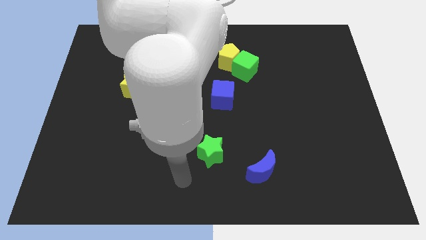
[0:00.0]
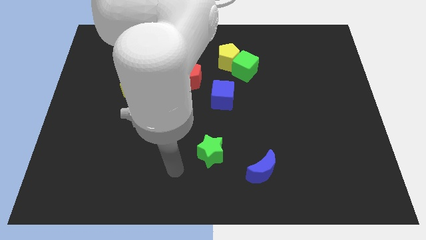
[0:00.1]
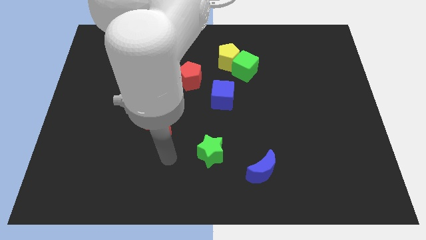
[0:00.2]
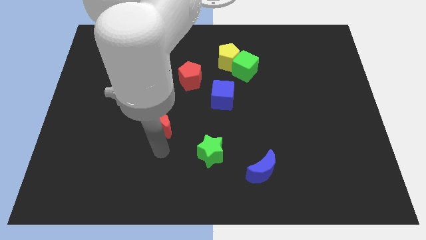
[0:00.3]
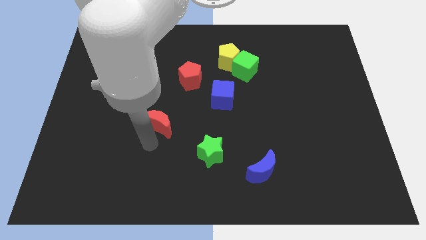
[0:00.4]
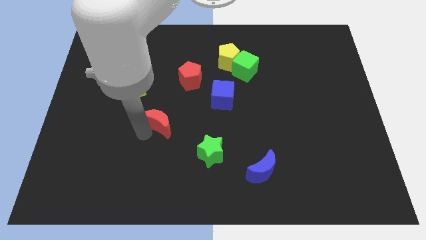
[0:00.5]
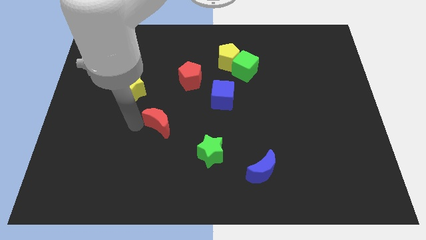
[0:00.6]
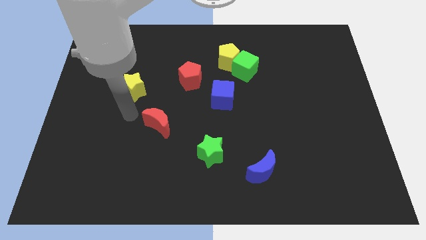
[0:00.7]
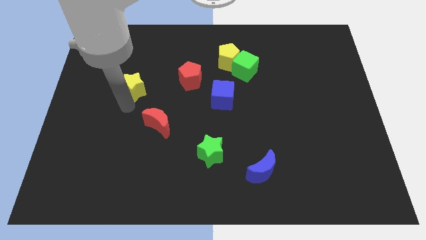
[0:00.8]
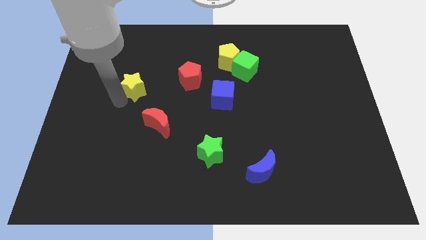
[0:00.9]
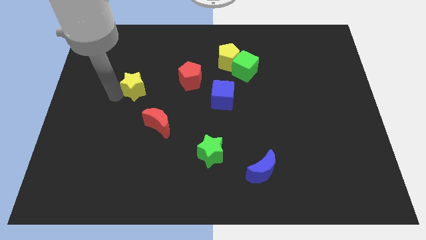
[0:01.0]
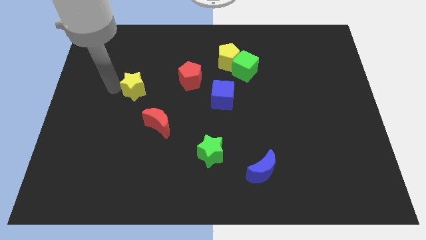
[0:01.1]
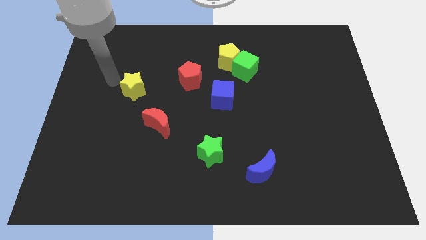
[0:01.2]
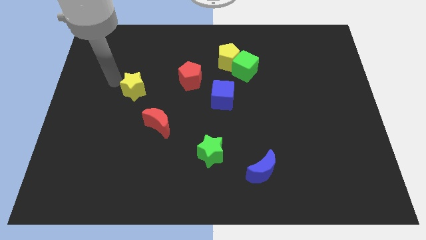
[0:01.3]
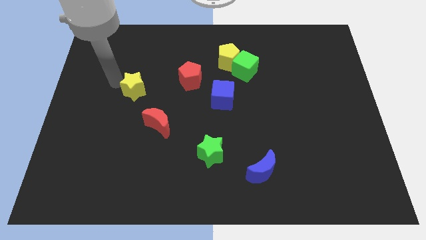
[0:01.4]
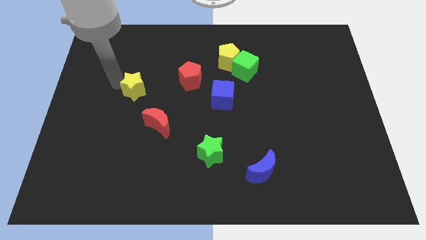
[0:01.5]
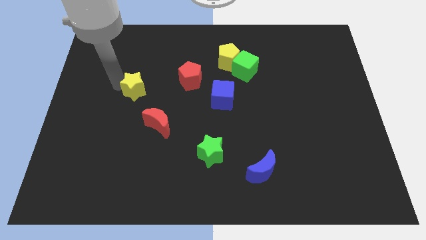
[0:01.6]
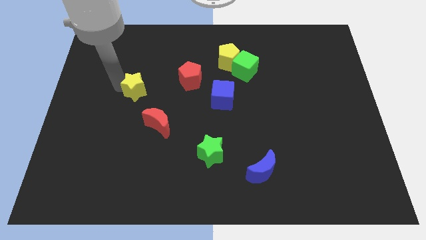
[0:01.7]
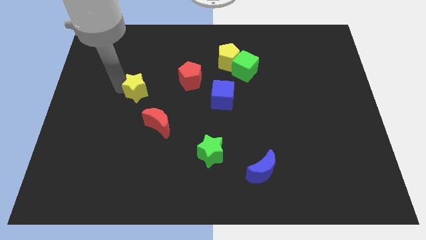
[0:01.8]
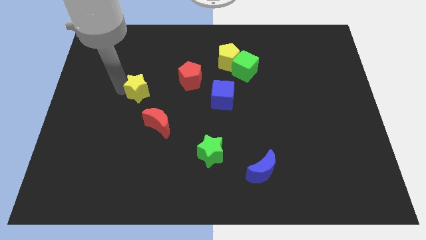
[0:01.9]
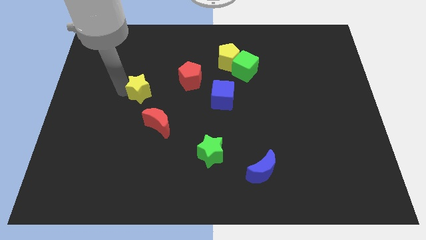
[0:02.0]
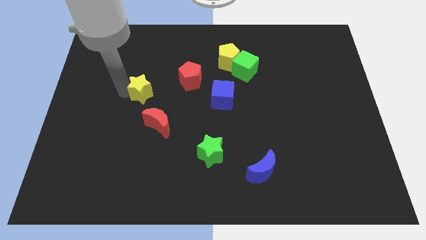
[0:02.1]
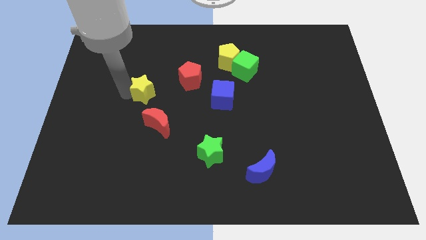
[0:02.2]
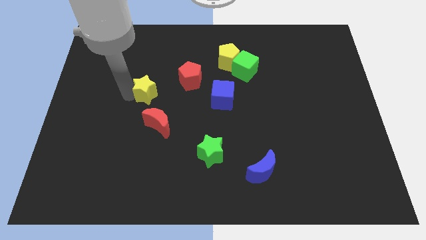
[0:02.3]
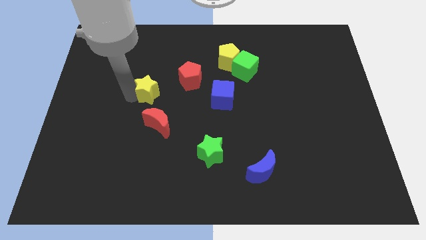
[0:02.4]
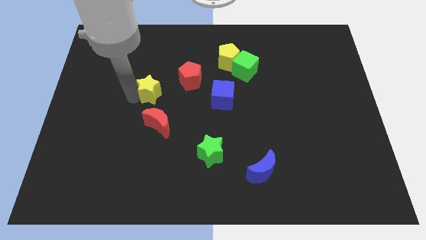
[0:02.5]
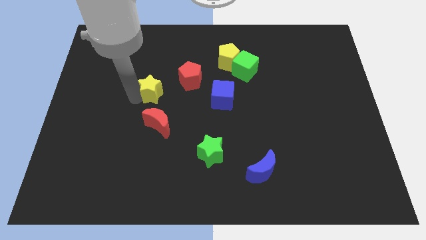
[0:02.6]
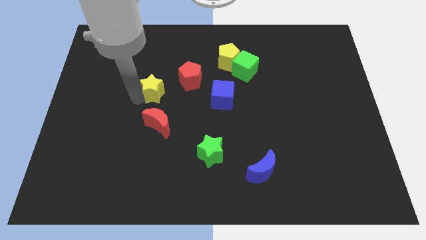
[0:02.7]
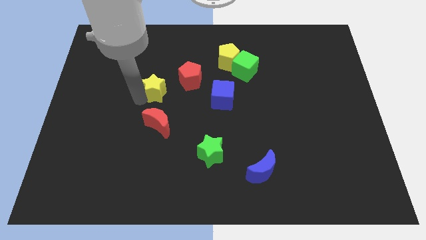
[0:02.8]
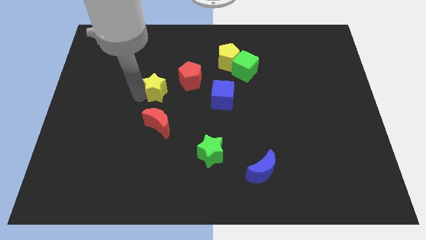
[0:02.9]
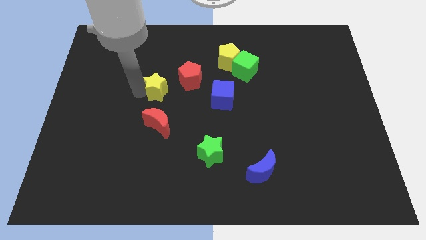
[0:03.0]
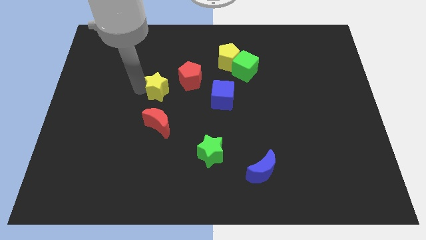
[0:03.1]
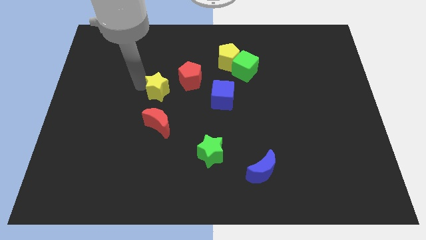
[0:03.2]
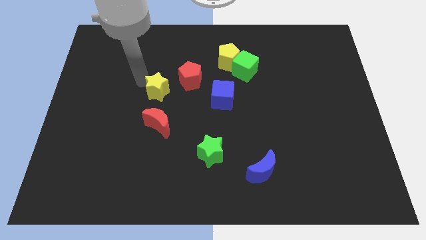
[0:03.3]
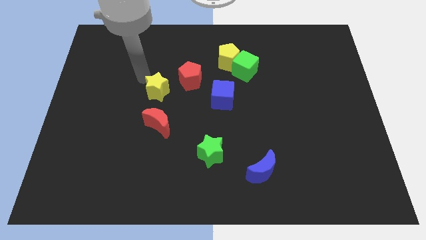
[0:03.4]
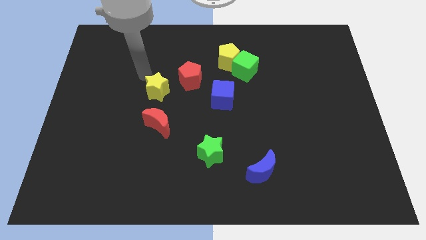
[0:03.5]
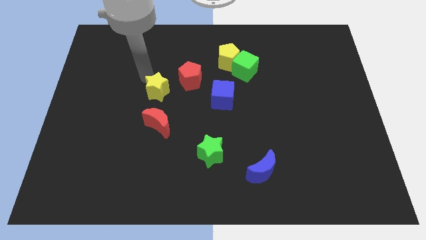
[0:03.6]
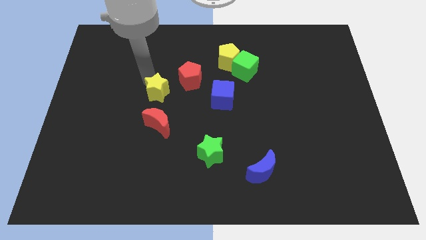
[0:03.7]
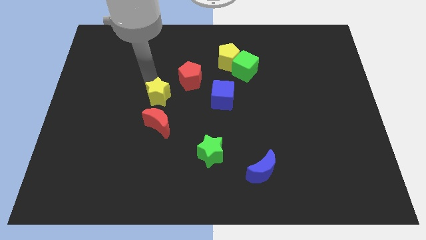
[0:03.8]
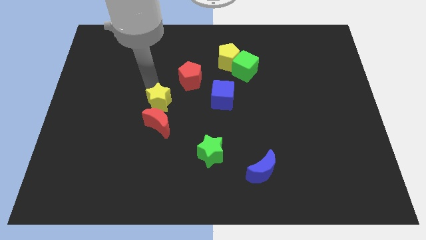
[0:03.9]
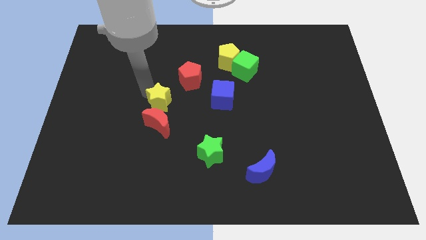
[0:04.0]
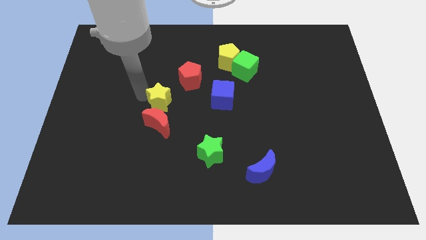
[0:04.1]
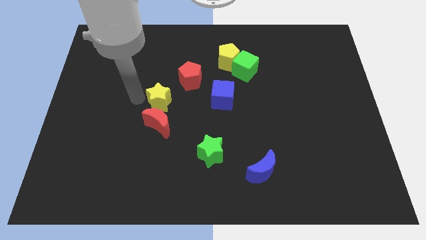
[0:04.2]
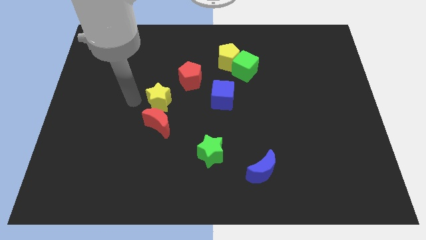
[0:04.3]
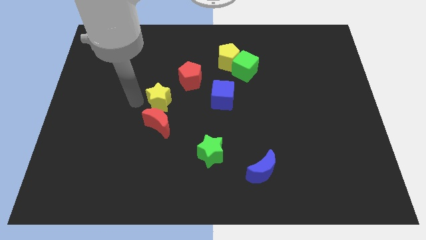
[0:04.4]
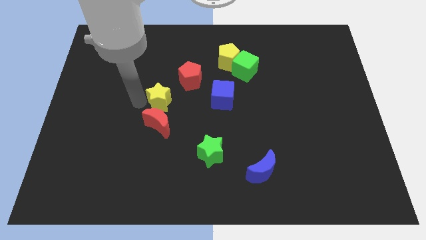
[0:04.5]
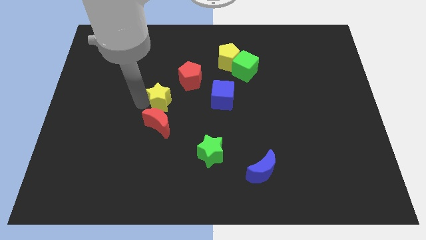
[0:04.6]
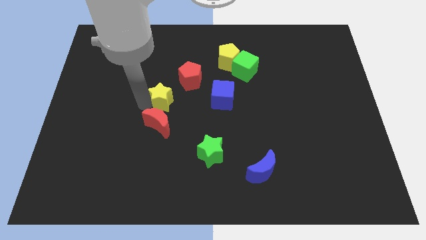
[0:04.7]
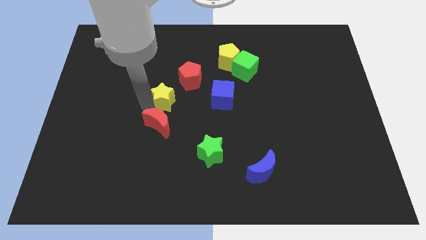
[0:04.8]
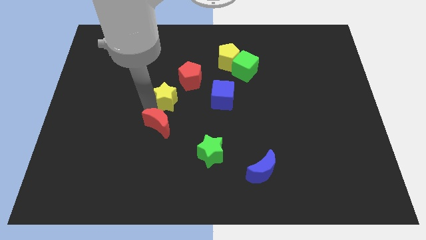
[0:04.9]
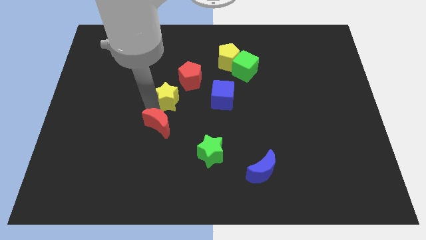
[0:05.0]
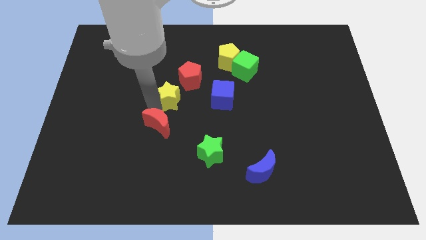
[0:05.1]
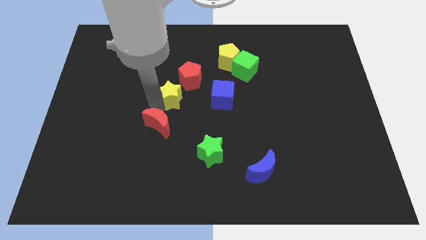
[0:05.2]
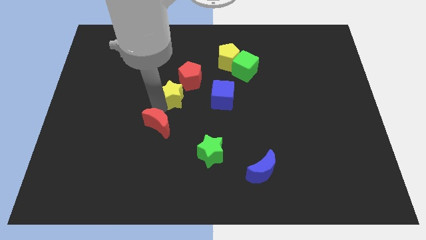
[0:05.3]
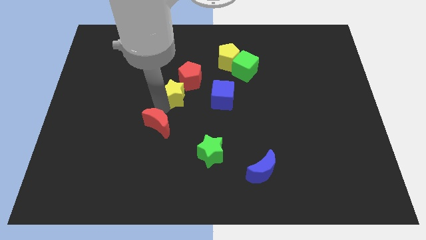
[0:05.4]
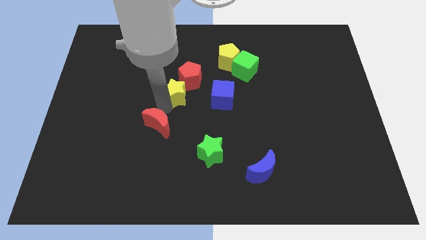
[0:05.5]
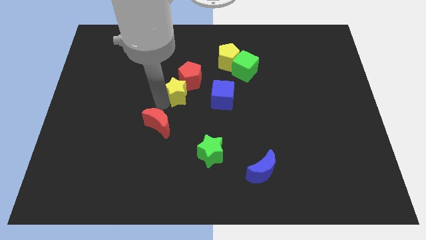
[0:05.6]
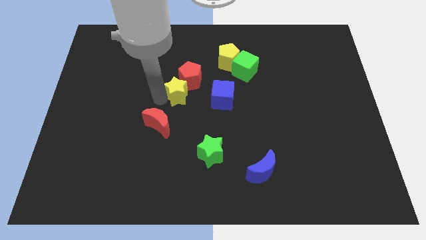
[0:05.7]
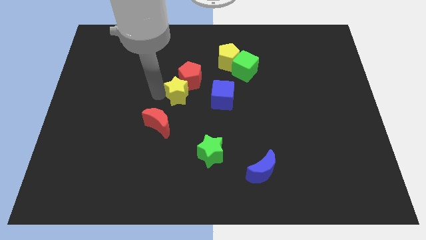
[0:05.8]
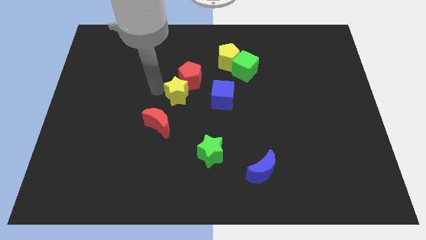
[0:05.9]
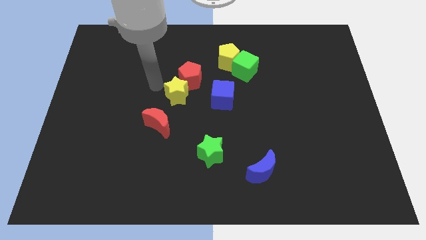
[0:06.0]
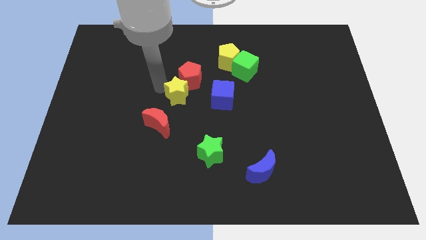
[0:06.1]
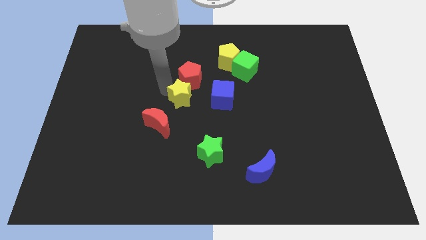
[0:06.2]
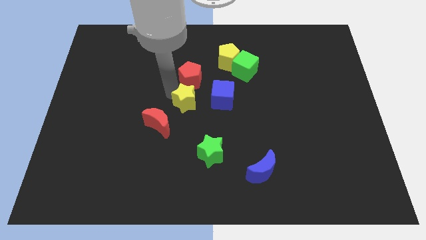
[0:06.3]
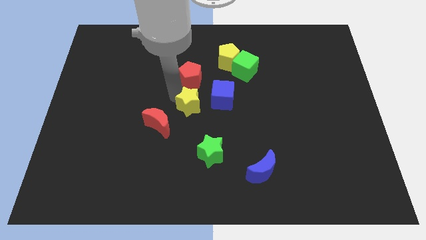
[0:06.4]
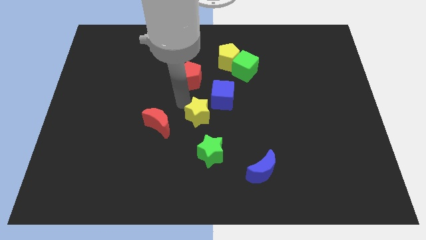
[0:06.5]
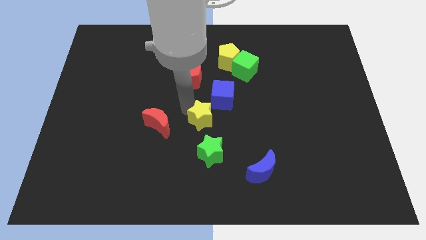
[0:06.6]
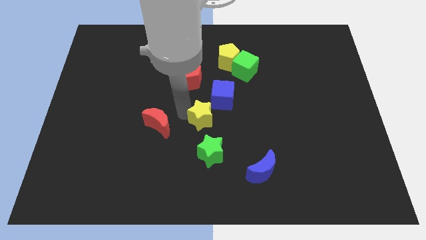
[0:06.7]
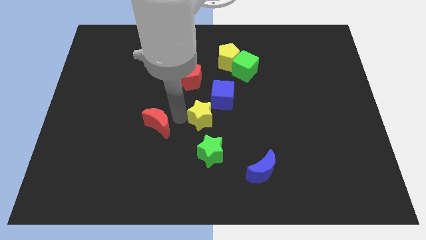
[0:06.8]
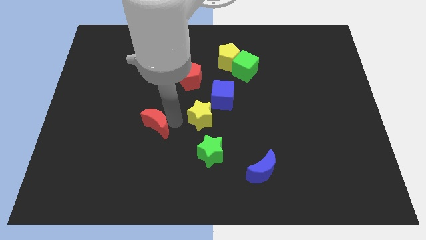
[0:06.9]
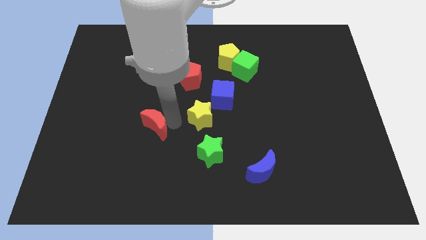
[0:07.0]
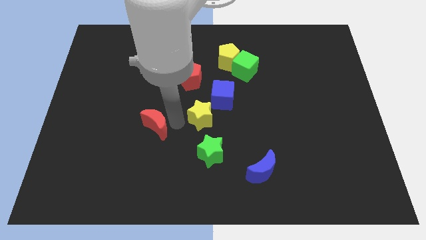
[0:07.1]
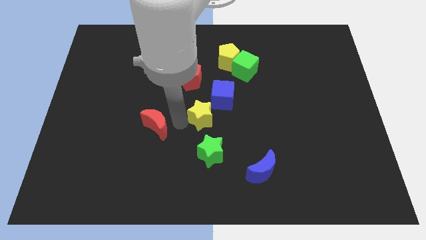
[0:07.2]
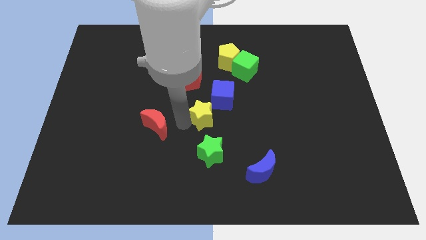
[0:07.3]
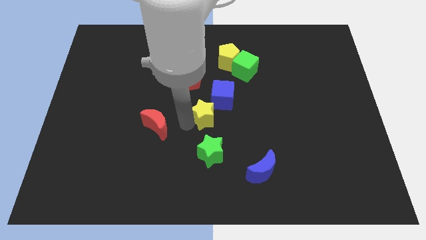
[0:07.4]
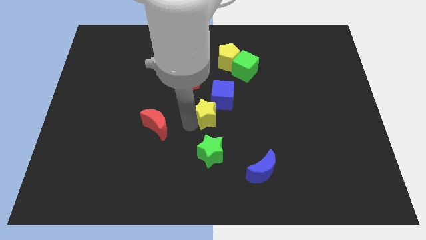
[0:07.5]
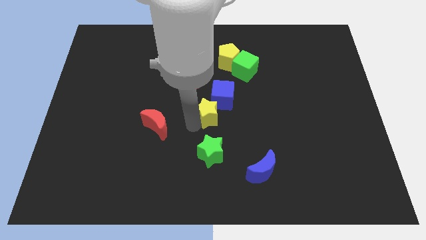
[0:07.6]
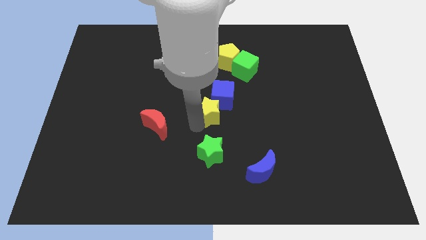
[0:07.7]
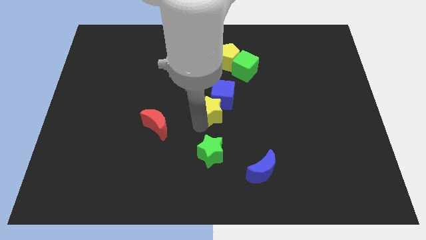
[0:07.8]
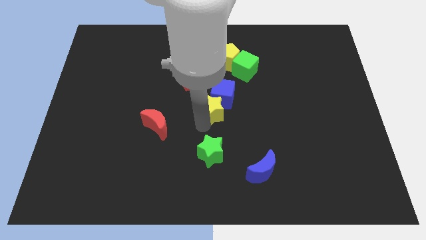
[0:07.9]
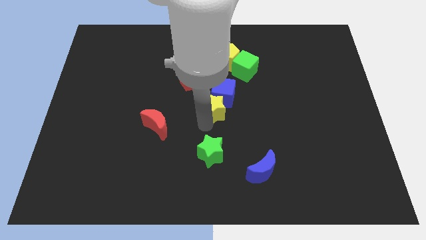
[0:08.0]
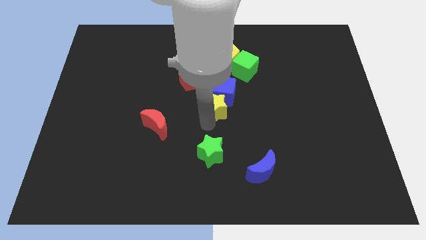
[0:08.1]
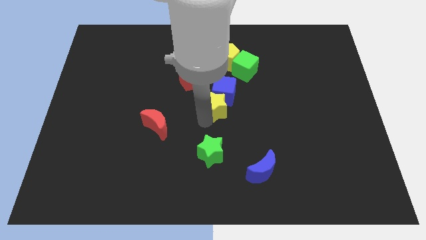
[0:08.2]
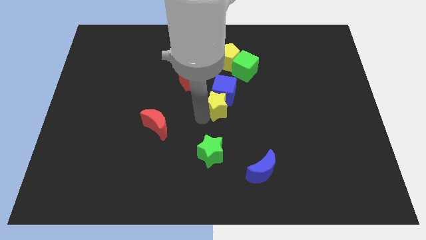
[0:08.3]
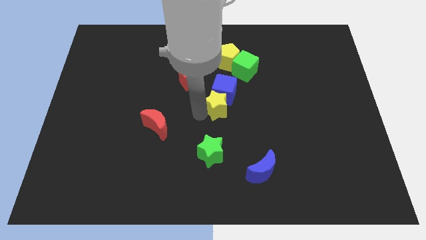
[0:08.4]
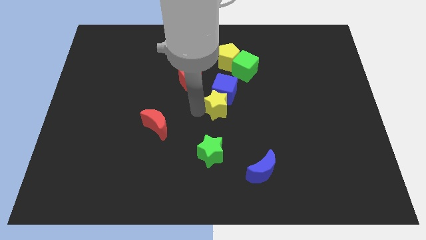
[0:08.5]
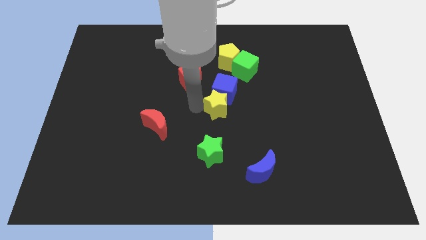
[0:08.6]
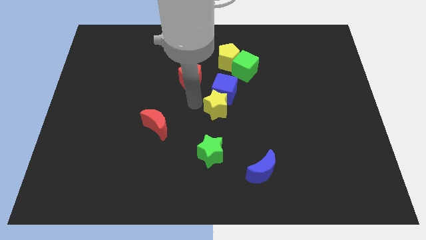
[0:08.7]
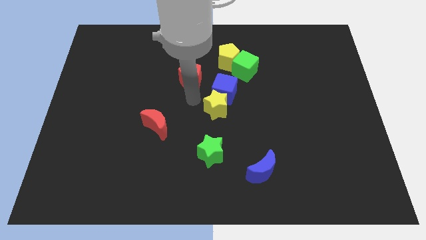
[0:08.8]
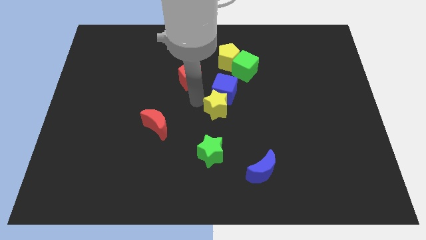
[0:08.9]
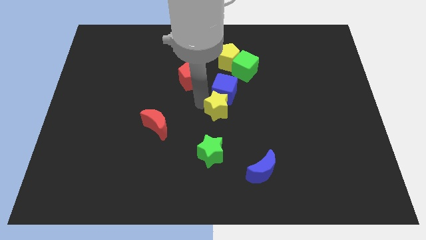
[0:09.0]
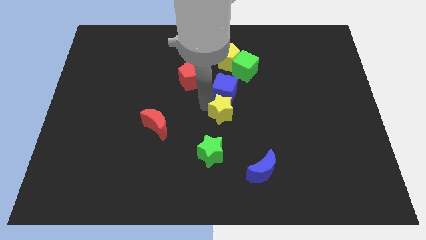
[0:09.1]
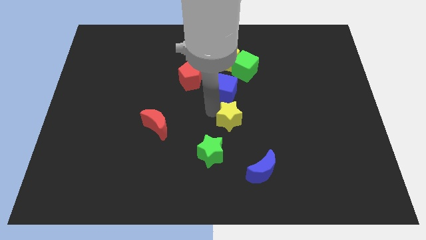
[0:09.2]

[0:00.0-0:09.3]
slide the yellow star to the right
